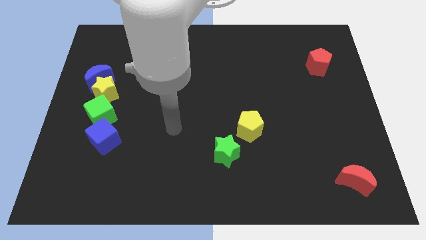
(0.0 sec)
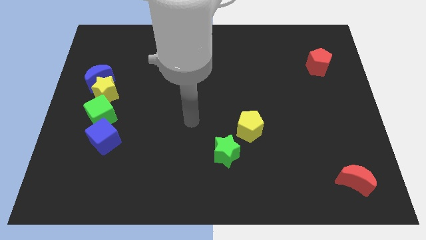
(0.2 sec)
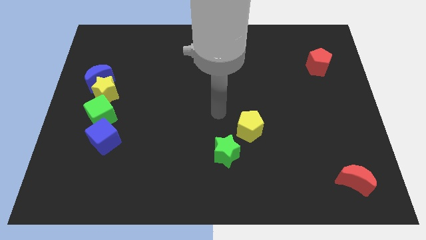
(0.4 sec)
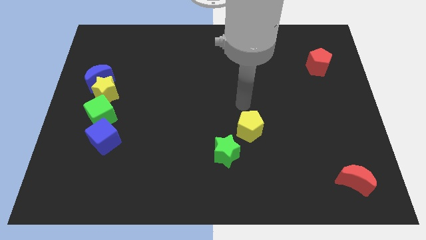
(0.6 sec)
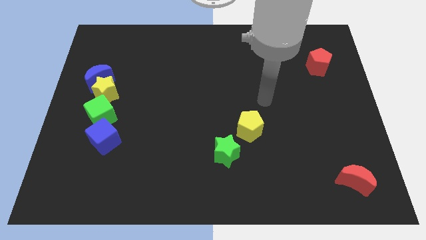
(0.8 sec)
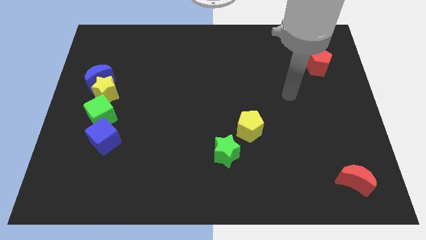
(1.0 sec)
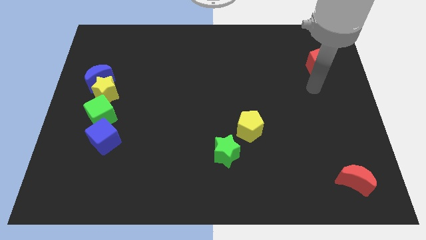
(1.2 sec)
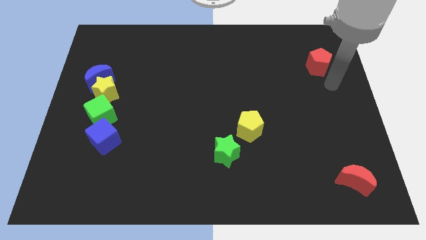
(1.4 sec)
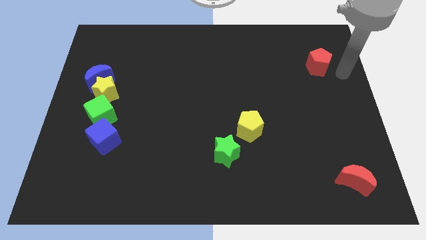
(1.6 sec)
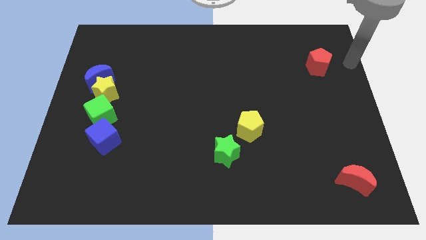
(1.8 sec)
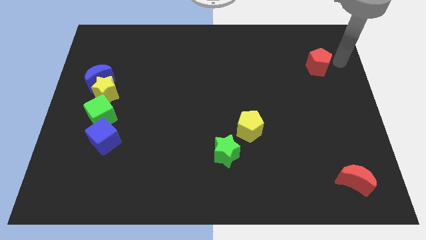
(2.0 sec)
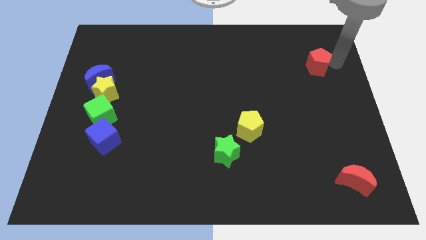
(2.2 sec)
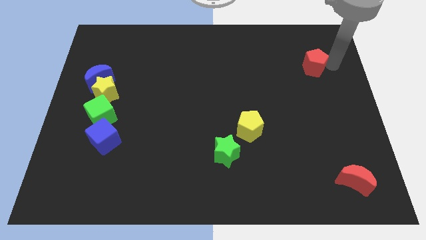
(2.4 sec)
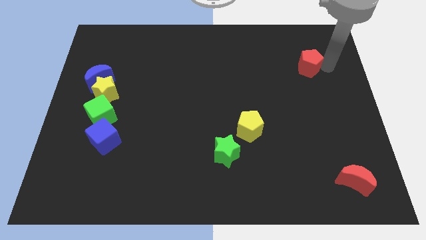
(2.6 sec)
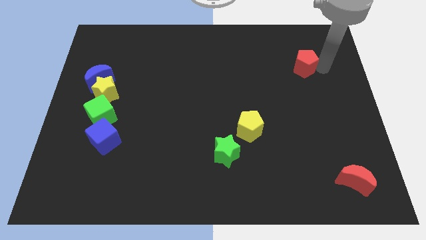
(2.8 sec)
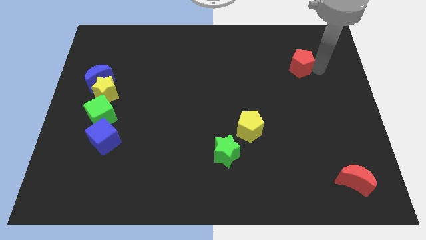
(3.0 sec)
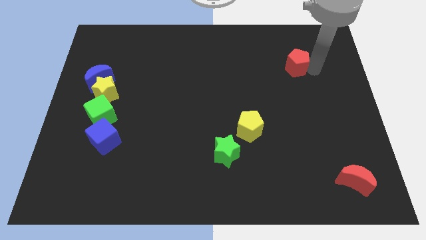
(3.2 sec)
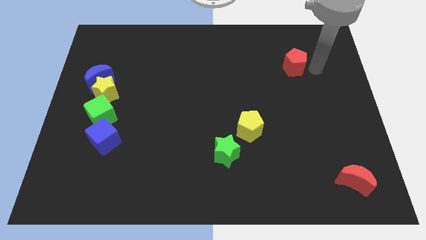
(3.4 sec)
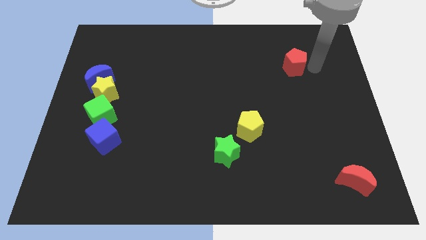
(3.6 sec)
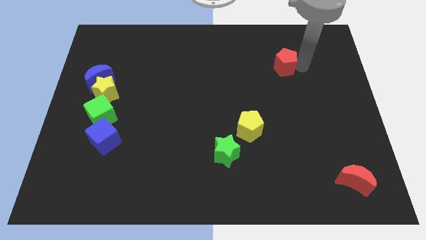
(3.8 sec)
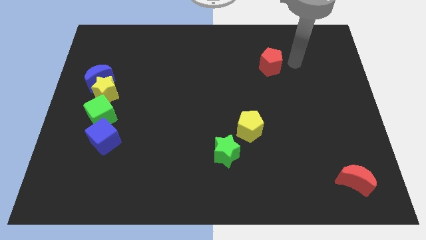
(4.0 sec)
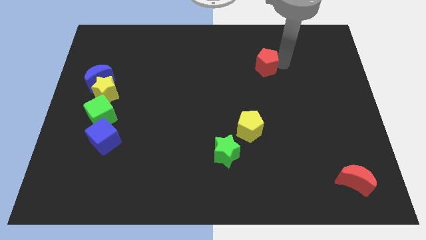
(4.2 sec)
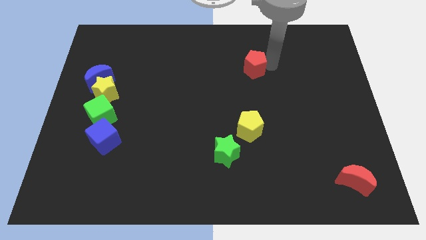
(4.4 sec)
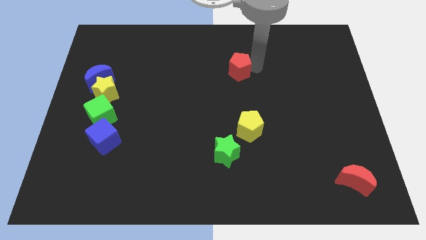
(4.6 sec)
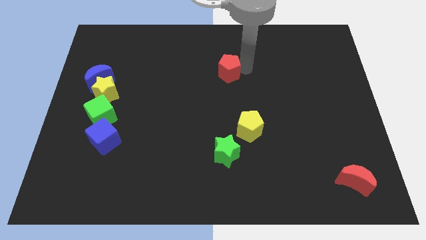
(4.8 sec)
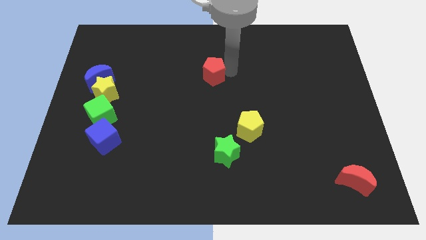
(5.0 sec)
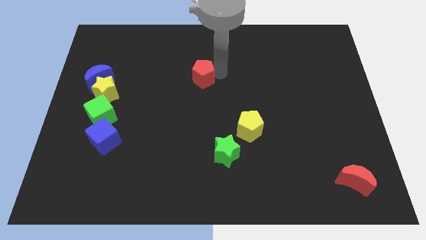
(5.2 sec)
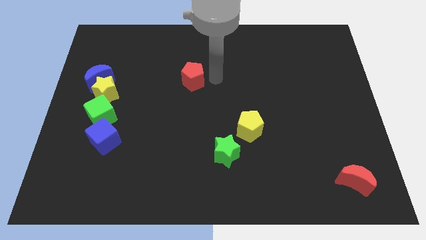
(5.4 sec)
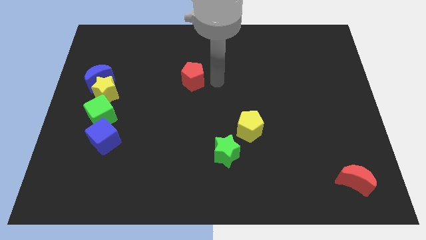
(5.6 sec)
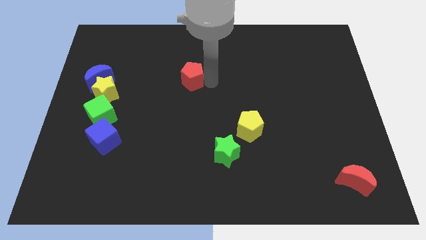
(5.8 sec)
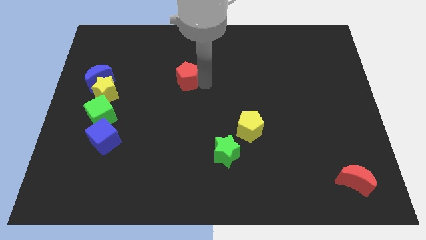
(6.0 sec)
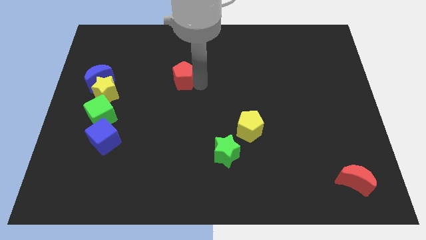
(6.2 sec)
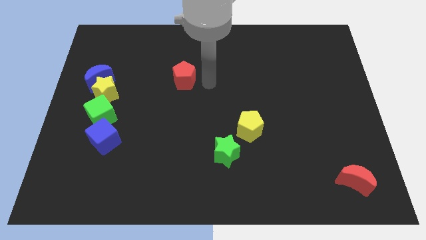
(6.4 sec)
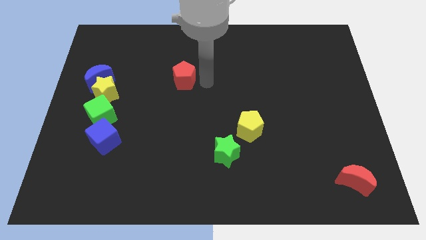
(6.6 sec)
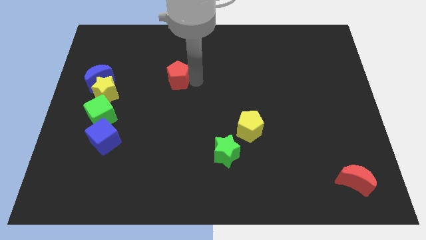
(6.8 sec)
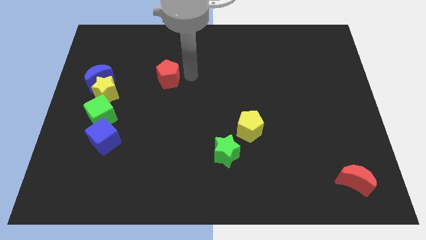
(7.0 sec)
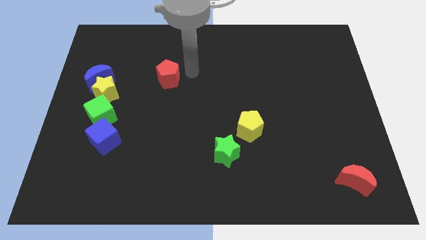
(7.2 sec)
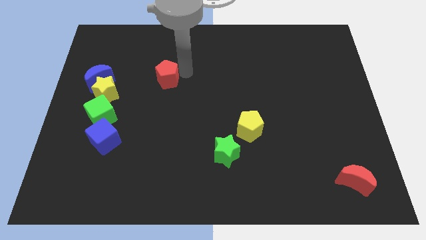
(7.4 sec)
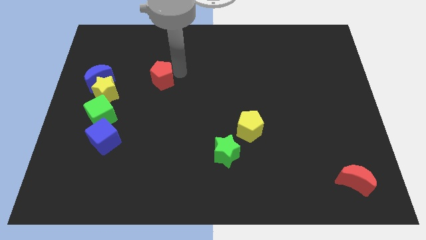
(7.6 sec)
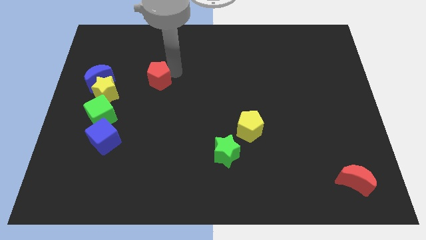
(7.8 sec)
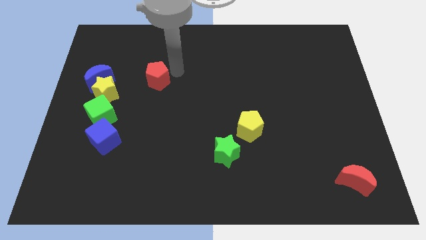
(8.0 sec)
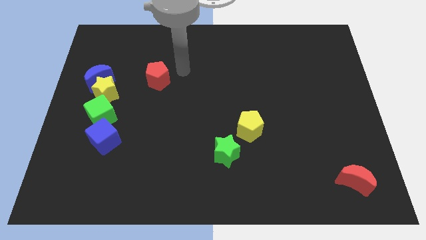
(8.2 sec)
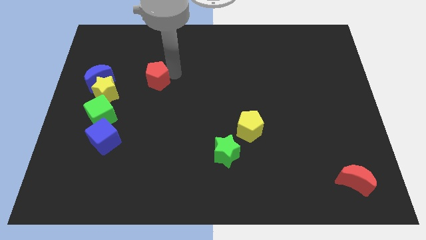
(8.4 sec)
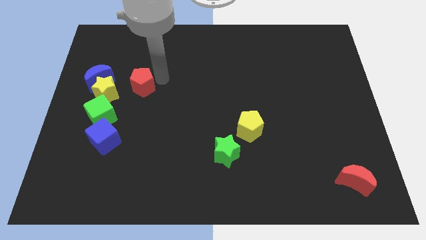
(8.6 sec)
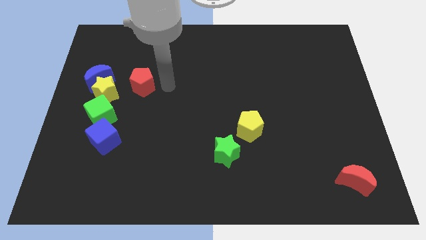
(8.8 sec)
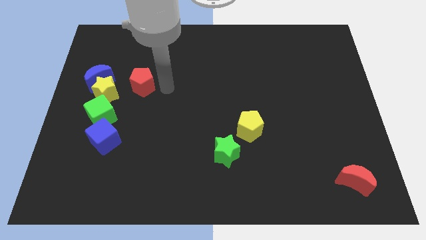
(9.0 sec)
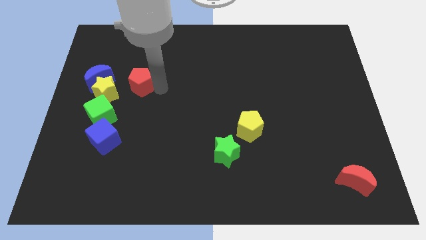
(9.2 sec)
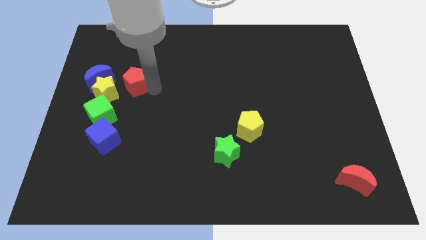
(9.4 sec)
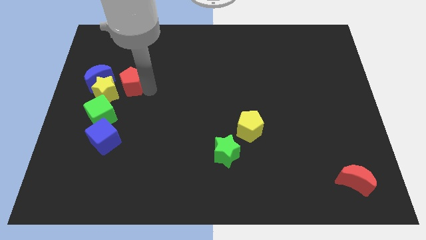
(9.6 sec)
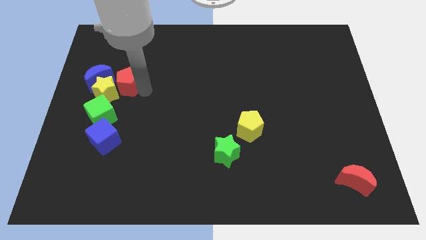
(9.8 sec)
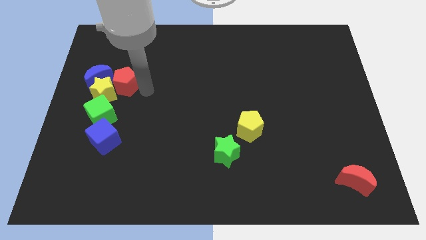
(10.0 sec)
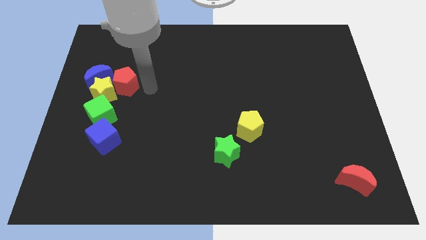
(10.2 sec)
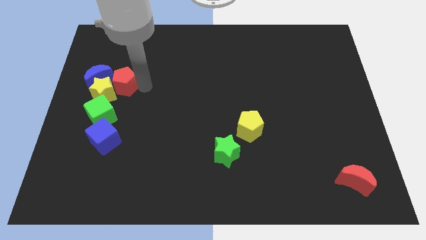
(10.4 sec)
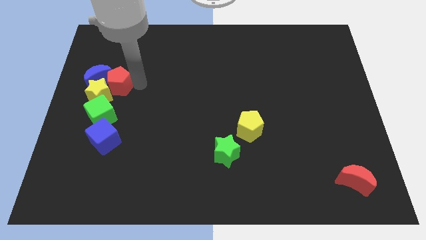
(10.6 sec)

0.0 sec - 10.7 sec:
push the red pentagon towards the blue moon

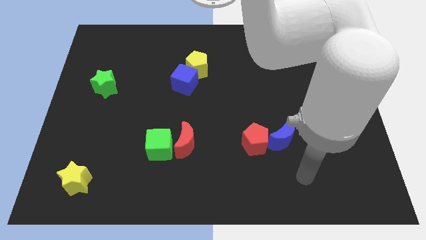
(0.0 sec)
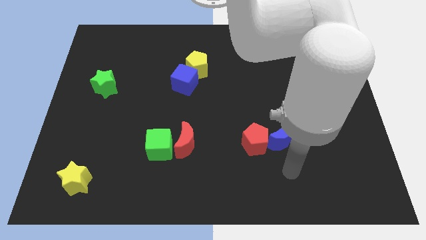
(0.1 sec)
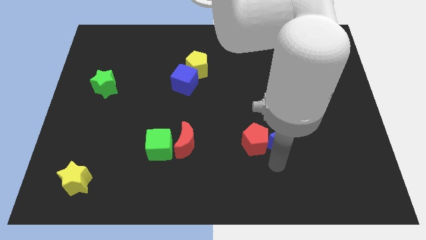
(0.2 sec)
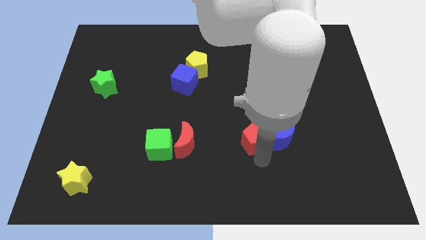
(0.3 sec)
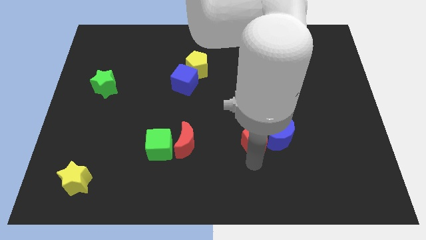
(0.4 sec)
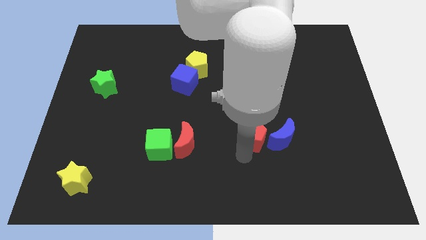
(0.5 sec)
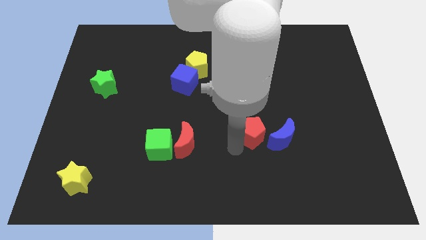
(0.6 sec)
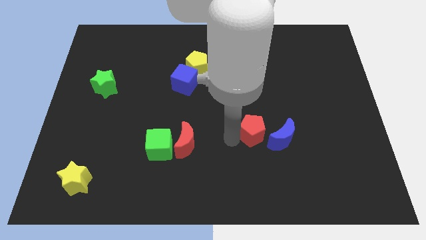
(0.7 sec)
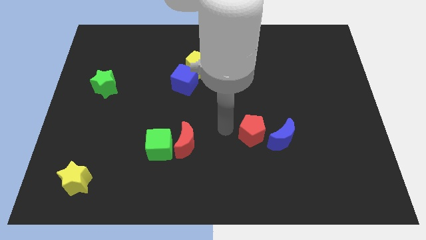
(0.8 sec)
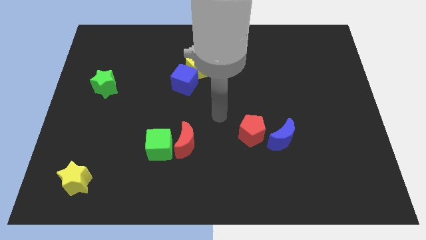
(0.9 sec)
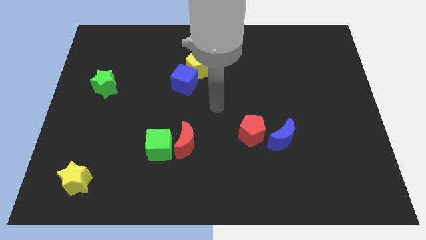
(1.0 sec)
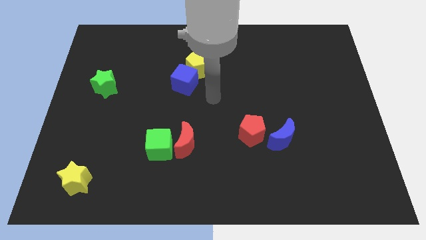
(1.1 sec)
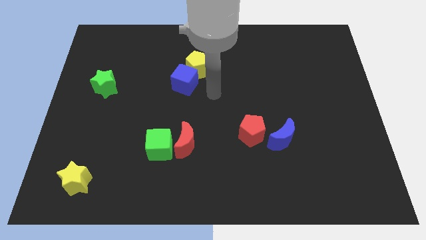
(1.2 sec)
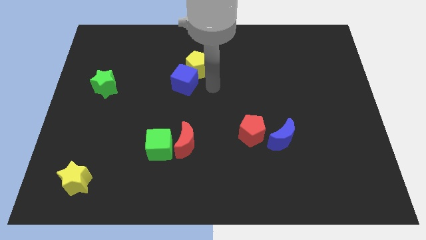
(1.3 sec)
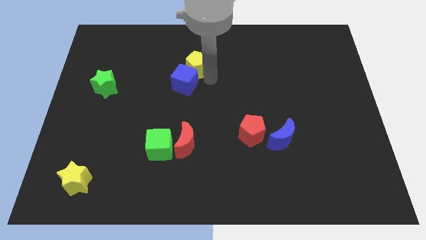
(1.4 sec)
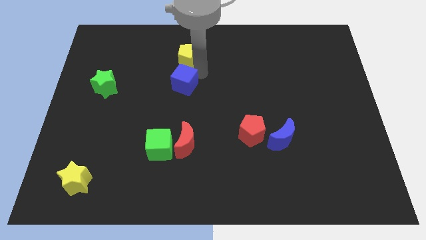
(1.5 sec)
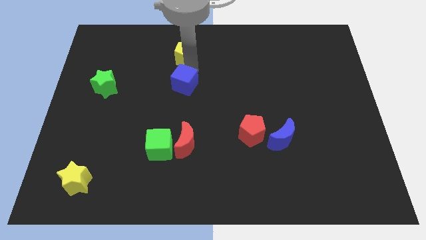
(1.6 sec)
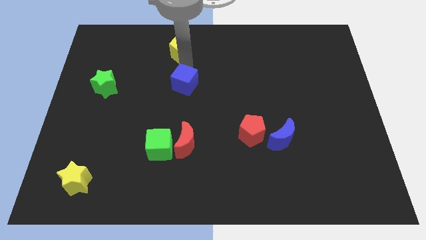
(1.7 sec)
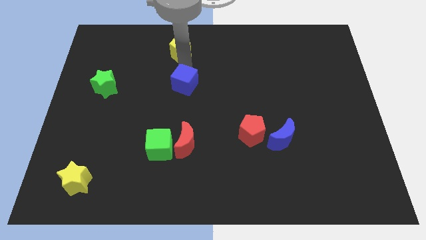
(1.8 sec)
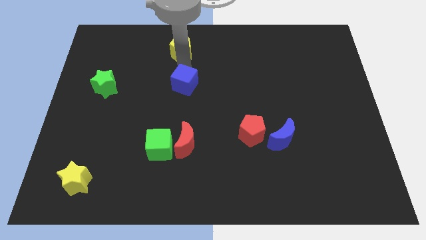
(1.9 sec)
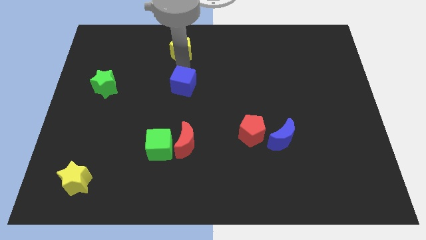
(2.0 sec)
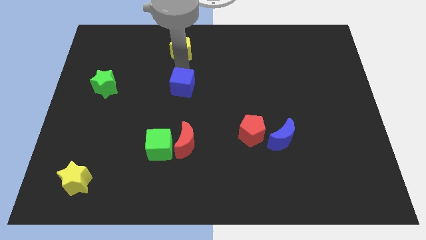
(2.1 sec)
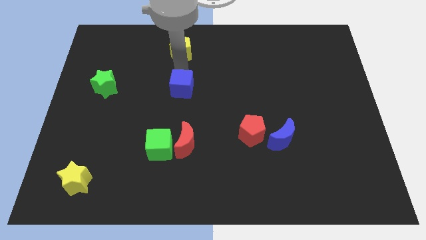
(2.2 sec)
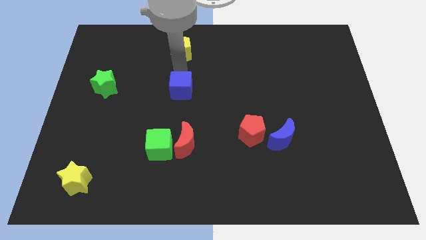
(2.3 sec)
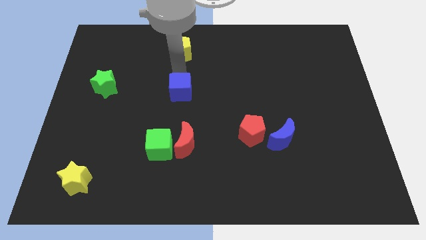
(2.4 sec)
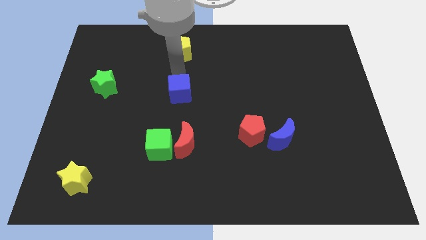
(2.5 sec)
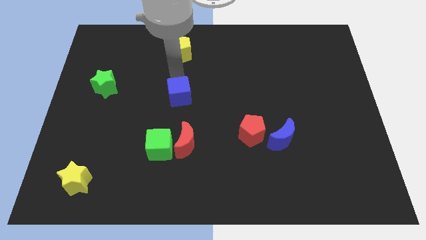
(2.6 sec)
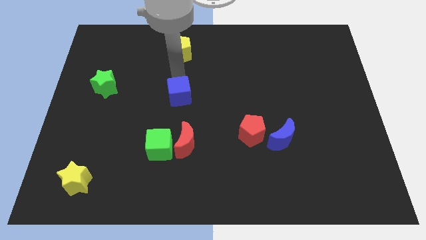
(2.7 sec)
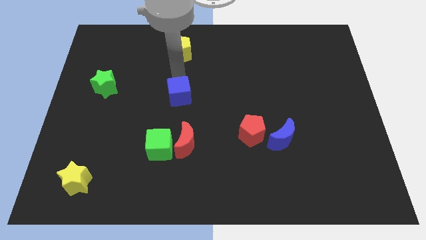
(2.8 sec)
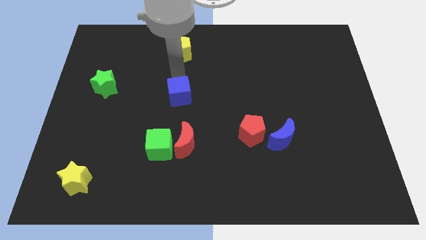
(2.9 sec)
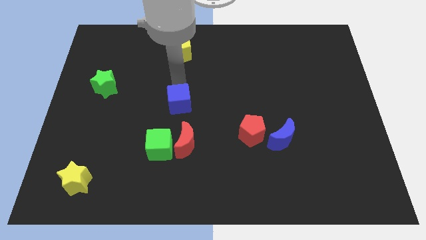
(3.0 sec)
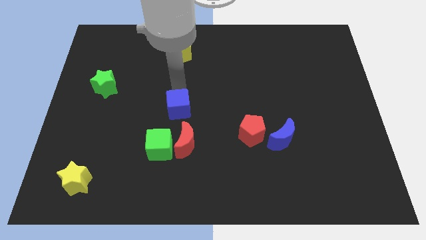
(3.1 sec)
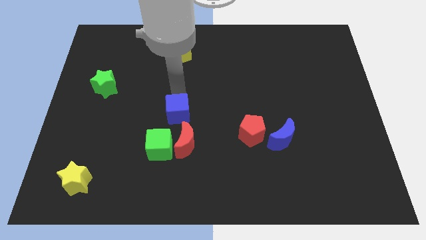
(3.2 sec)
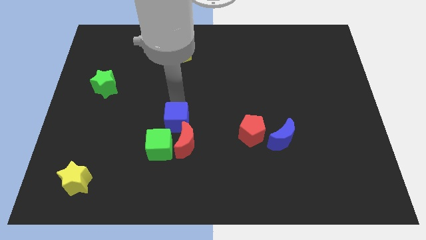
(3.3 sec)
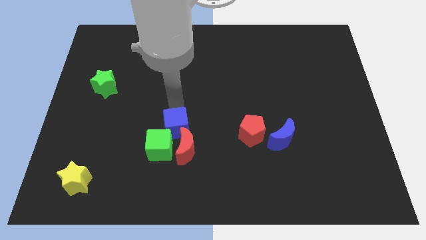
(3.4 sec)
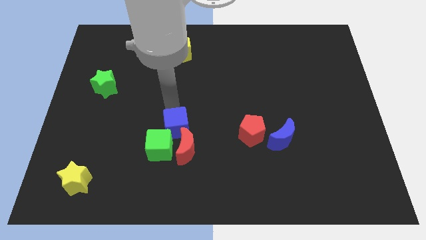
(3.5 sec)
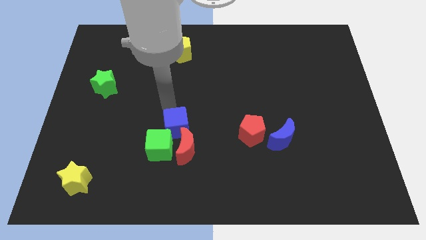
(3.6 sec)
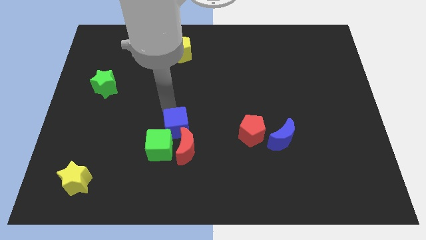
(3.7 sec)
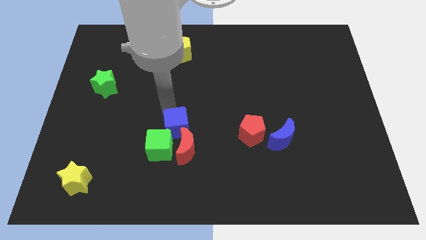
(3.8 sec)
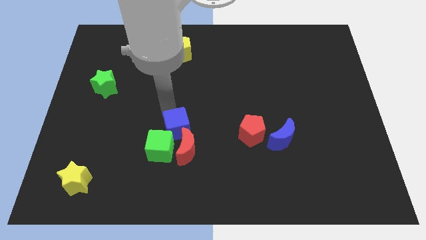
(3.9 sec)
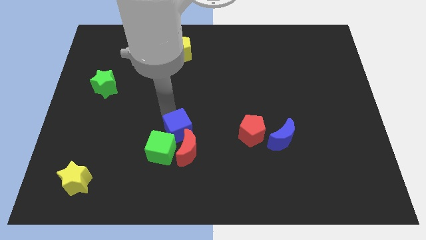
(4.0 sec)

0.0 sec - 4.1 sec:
slide the blue cube next to the red moon
